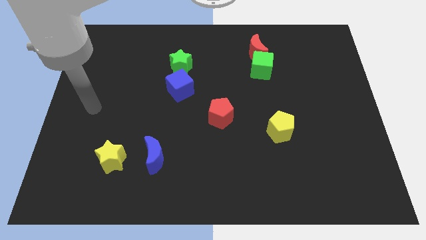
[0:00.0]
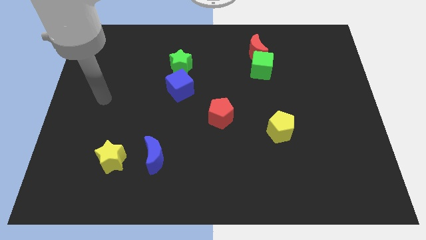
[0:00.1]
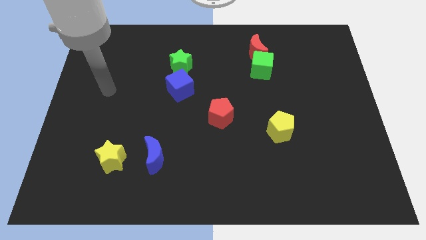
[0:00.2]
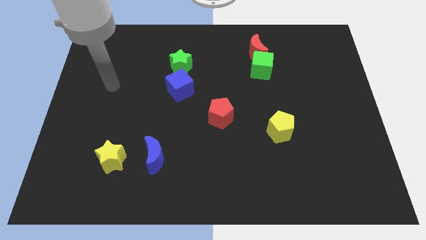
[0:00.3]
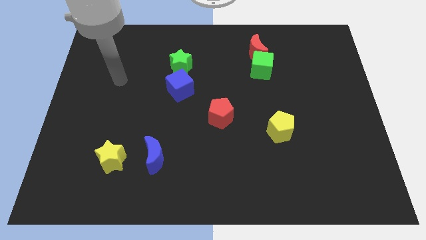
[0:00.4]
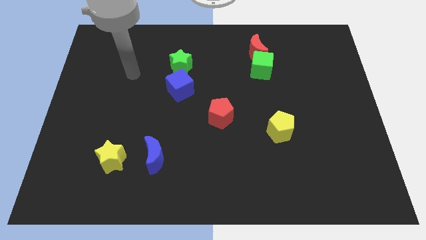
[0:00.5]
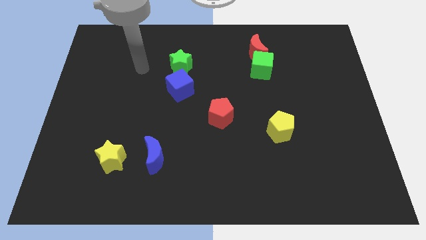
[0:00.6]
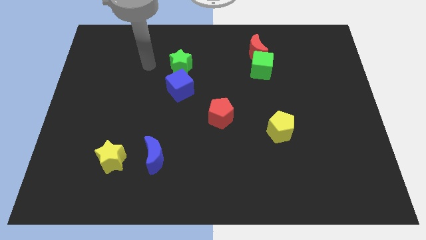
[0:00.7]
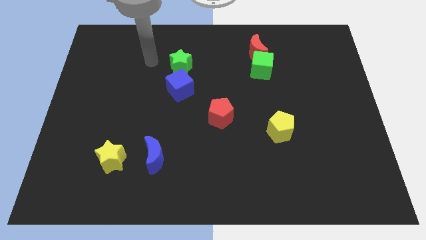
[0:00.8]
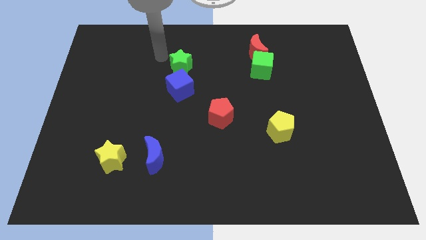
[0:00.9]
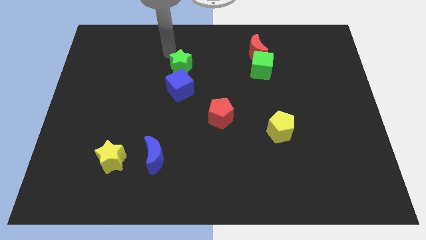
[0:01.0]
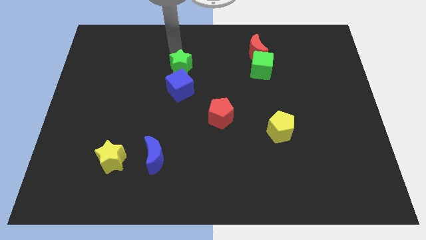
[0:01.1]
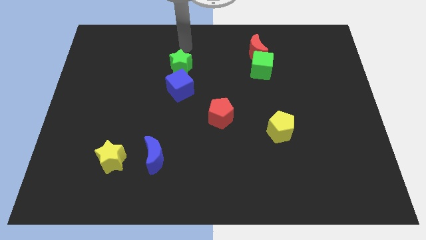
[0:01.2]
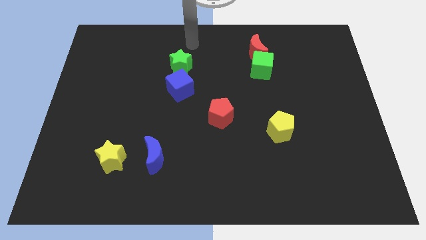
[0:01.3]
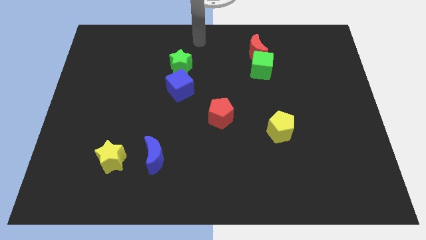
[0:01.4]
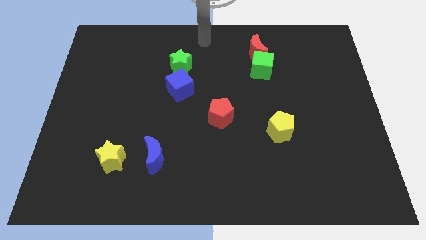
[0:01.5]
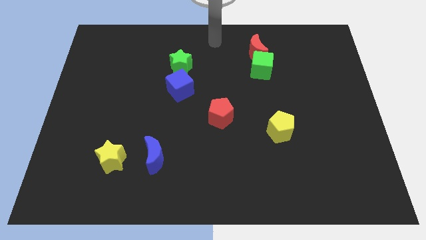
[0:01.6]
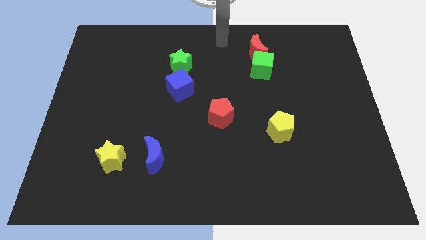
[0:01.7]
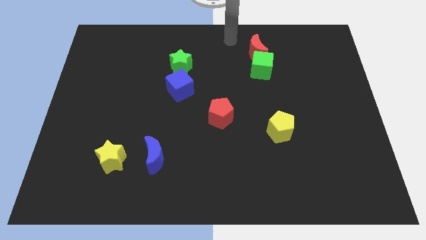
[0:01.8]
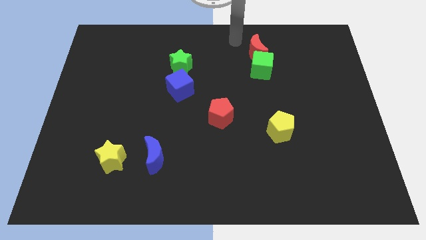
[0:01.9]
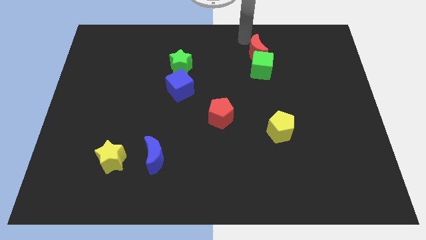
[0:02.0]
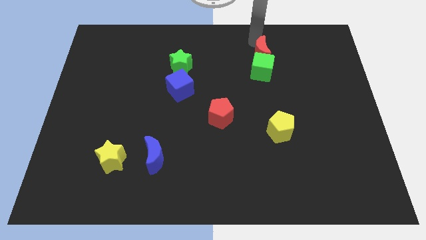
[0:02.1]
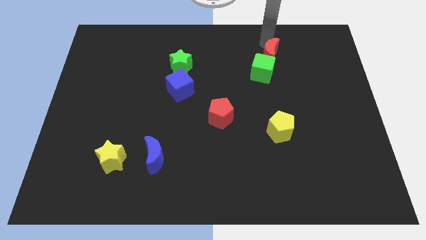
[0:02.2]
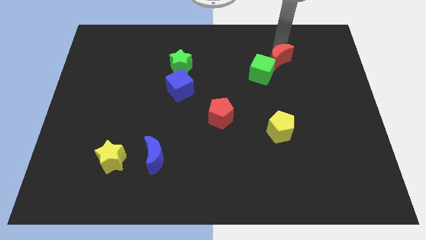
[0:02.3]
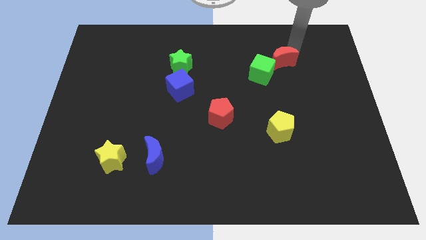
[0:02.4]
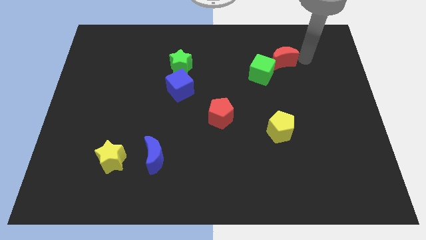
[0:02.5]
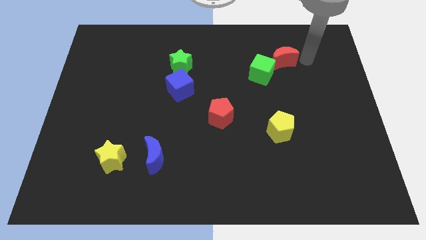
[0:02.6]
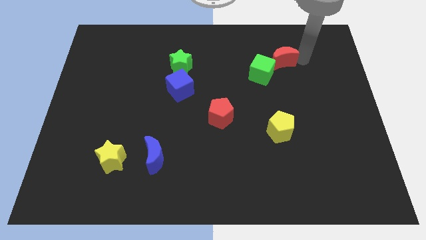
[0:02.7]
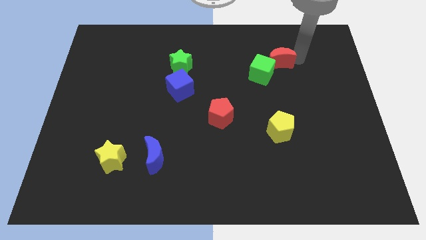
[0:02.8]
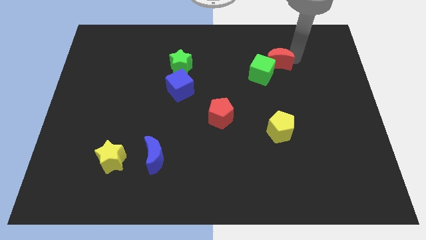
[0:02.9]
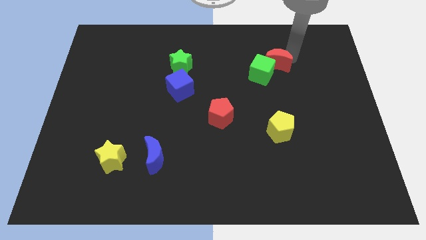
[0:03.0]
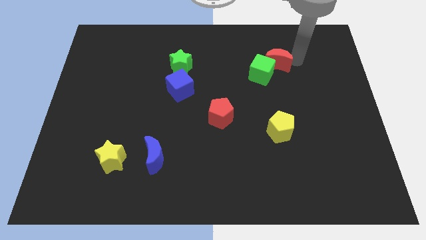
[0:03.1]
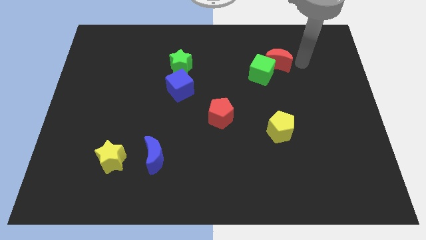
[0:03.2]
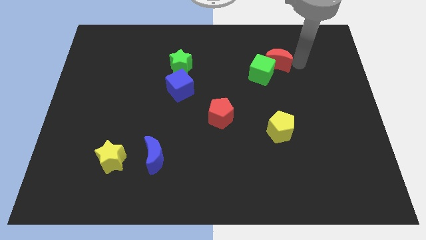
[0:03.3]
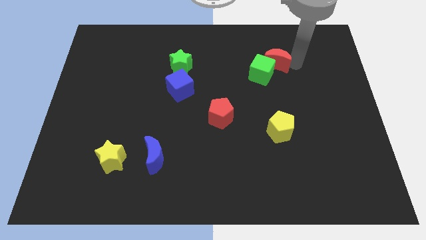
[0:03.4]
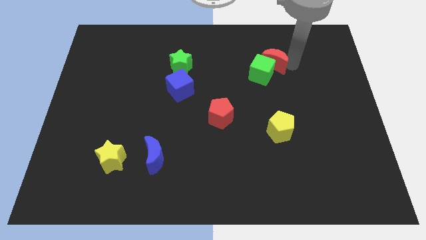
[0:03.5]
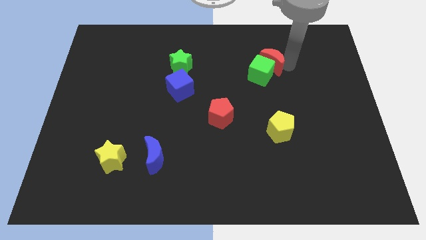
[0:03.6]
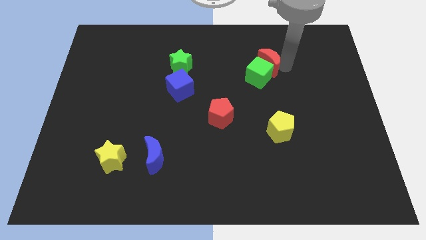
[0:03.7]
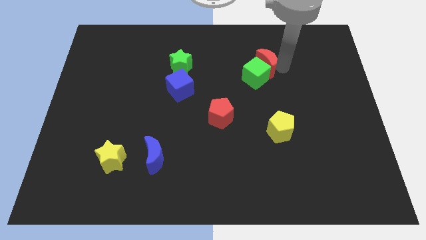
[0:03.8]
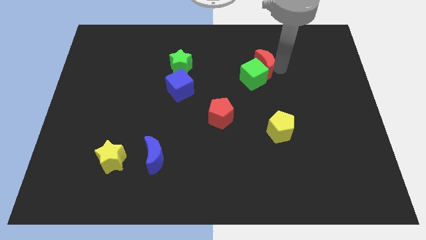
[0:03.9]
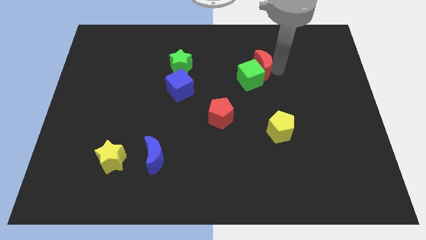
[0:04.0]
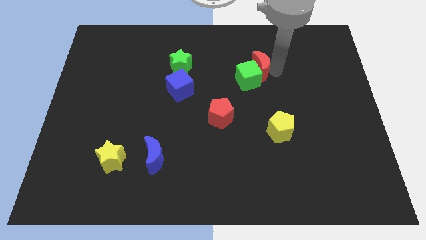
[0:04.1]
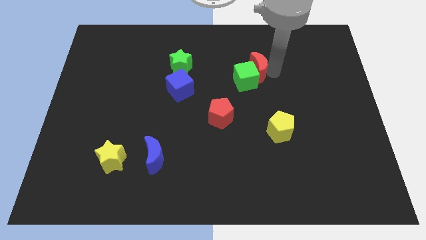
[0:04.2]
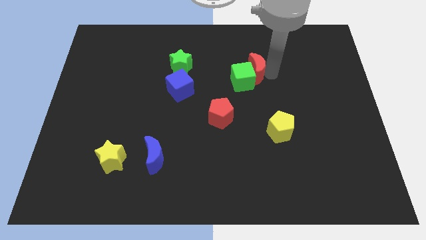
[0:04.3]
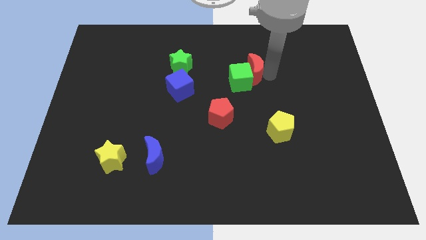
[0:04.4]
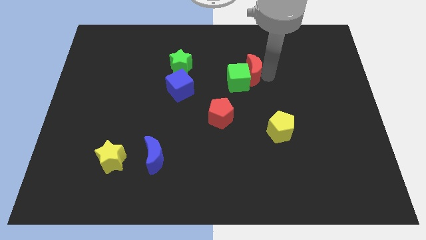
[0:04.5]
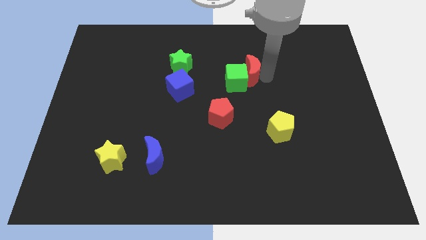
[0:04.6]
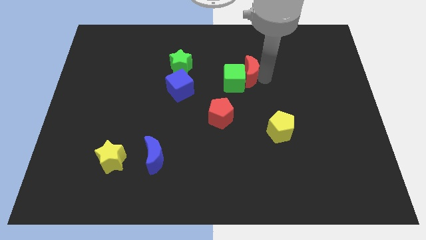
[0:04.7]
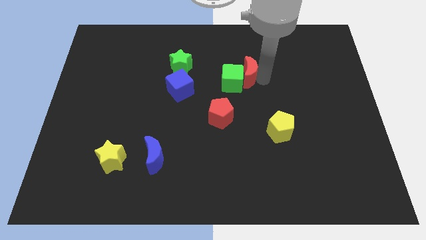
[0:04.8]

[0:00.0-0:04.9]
slightly push the red moon diagonally downwards and to the left

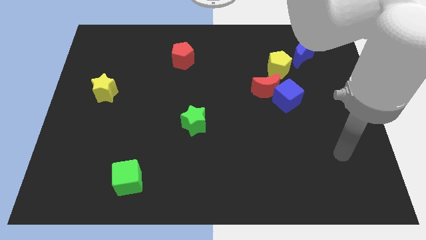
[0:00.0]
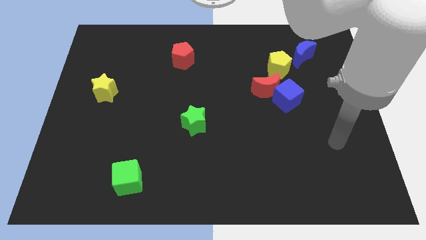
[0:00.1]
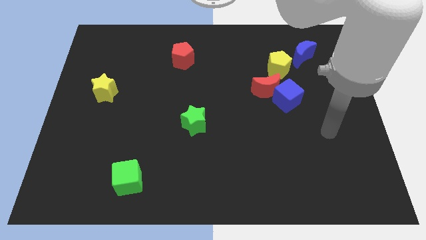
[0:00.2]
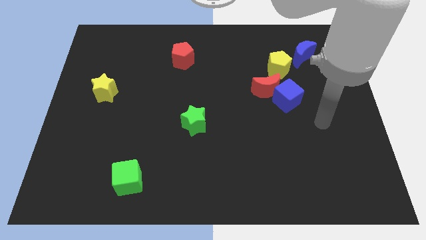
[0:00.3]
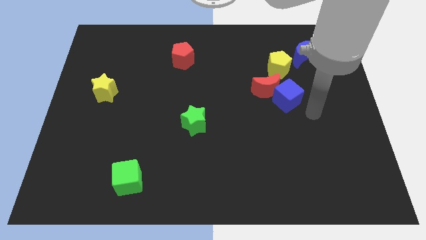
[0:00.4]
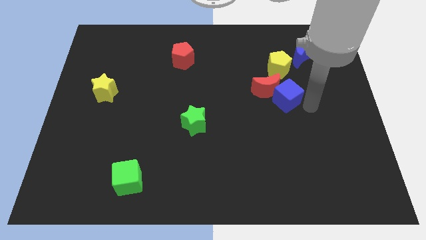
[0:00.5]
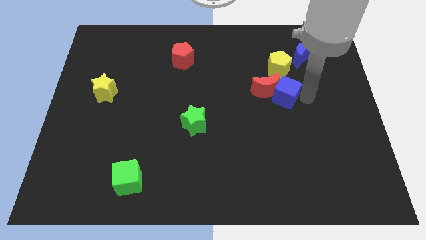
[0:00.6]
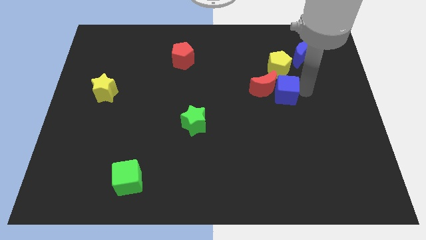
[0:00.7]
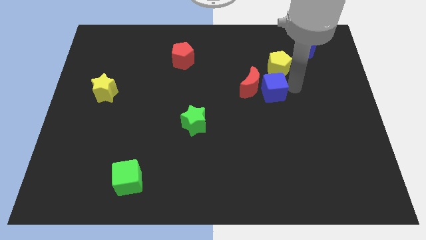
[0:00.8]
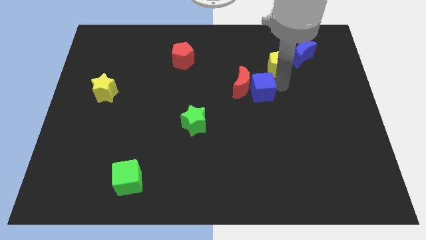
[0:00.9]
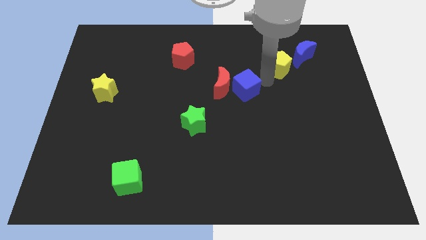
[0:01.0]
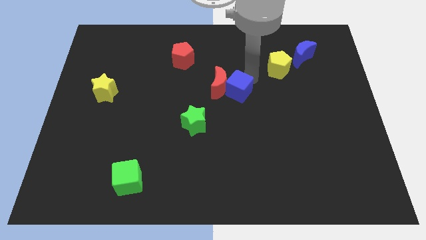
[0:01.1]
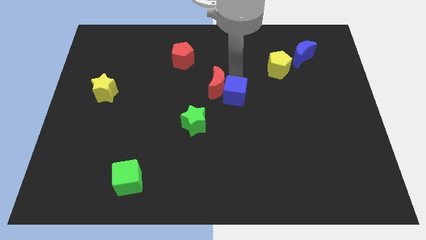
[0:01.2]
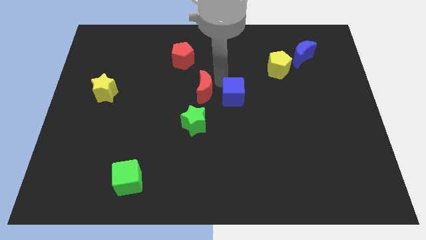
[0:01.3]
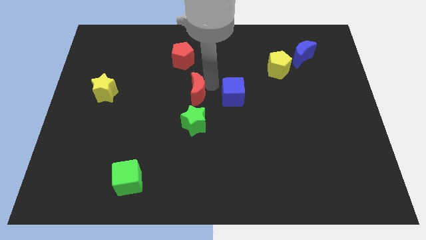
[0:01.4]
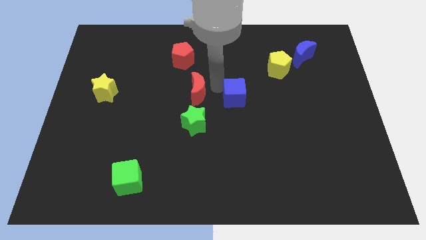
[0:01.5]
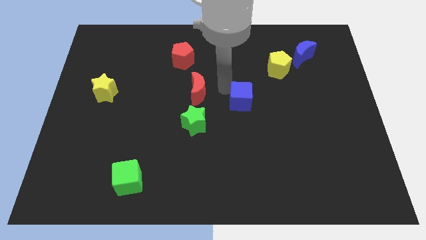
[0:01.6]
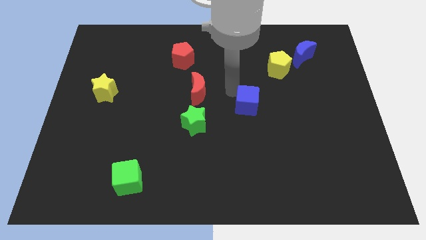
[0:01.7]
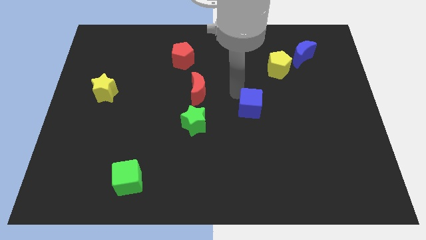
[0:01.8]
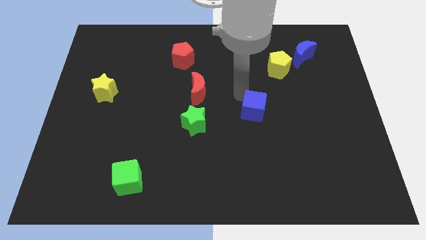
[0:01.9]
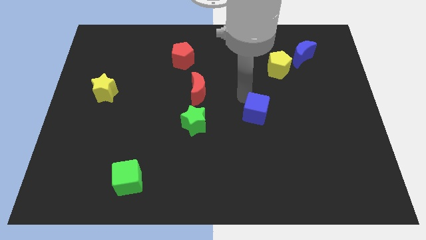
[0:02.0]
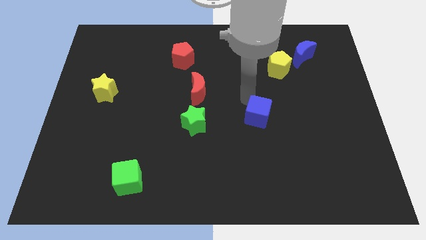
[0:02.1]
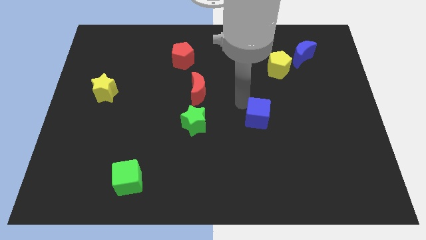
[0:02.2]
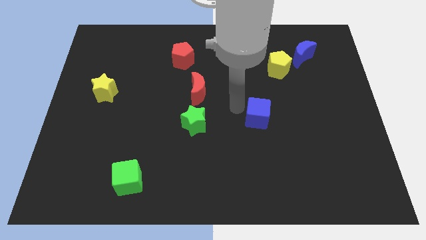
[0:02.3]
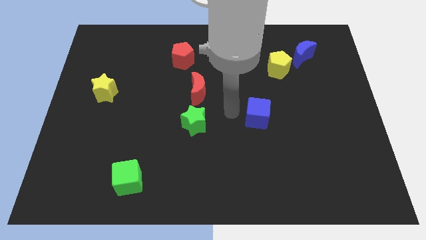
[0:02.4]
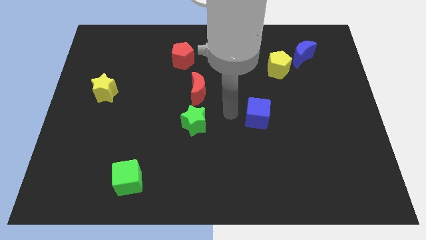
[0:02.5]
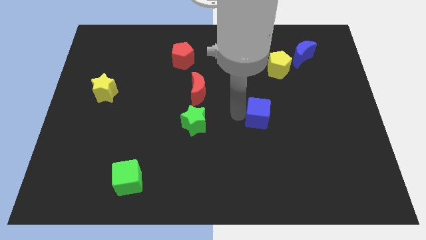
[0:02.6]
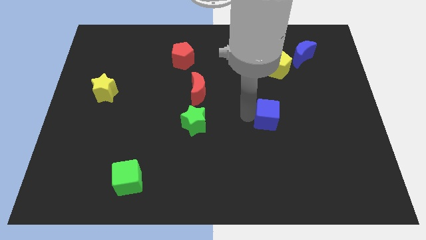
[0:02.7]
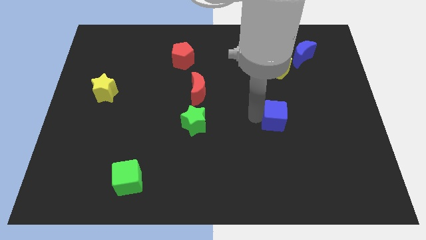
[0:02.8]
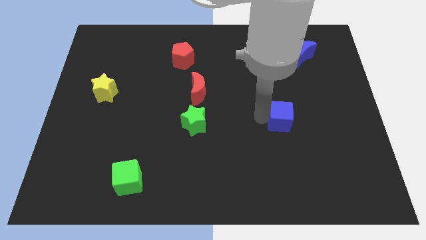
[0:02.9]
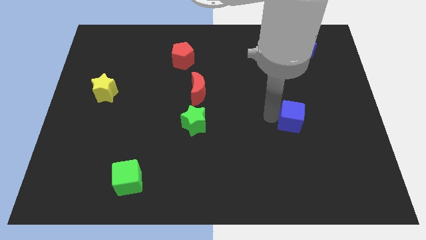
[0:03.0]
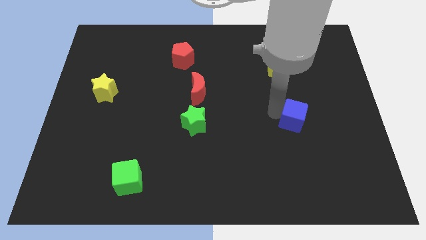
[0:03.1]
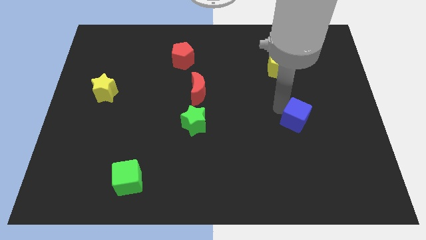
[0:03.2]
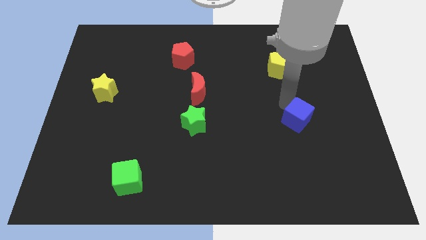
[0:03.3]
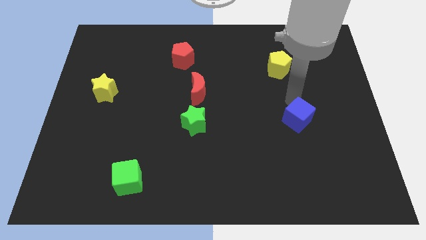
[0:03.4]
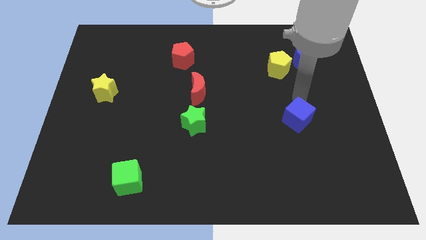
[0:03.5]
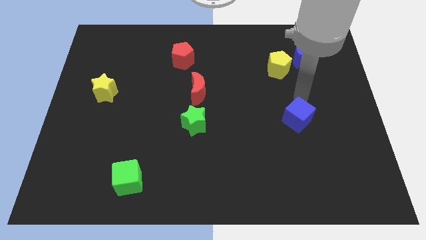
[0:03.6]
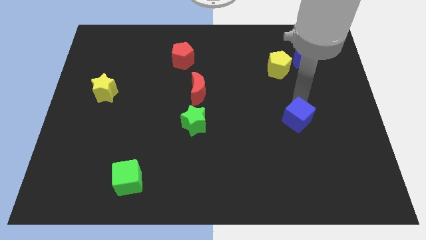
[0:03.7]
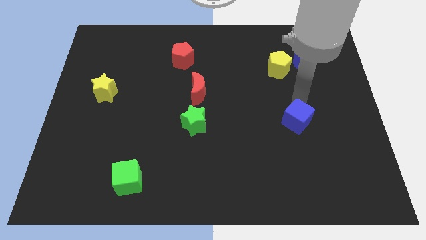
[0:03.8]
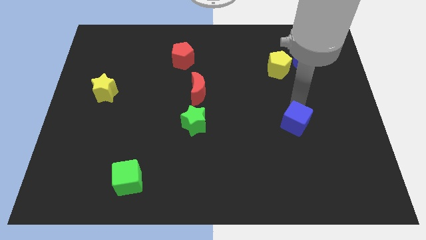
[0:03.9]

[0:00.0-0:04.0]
slightly push the blue cube down
